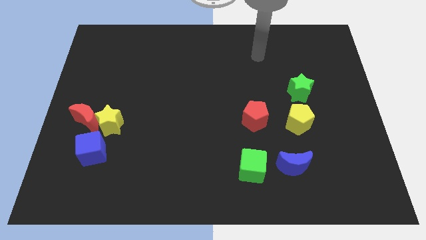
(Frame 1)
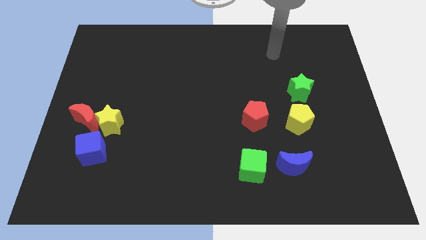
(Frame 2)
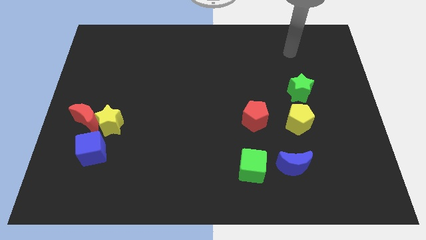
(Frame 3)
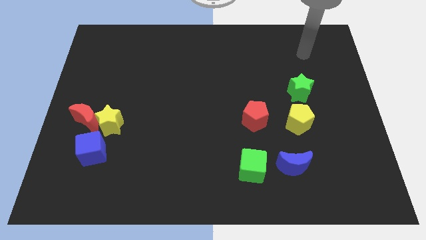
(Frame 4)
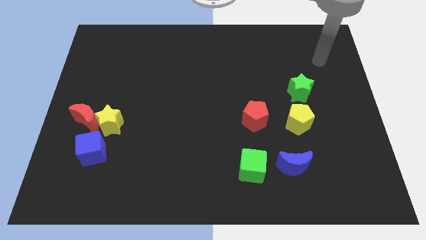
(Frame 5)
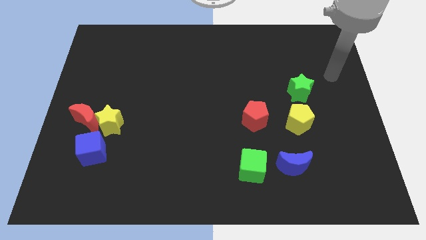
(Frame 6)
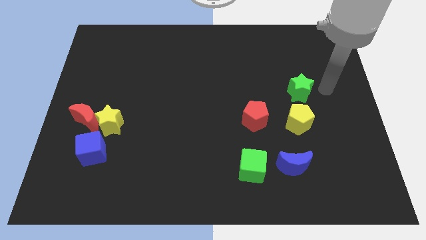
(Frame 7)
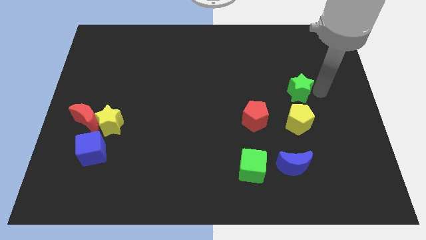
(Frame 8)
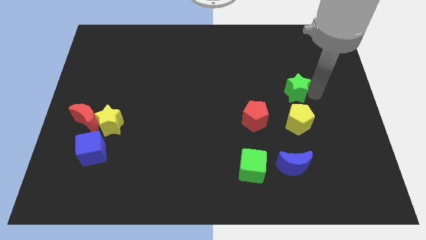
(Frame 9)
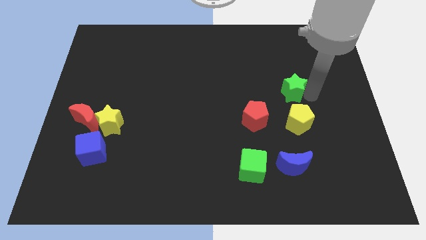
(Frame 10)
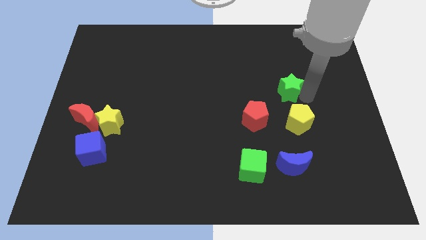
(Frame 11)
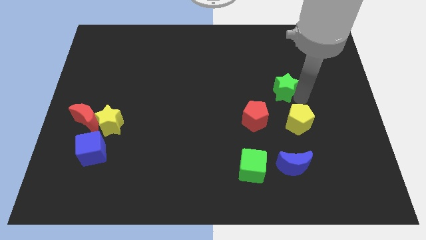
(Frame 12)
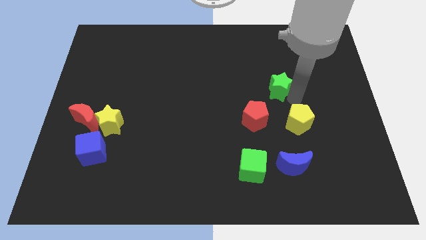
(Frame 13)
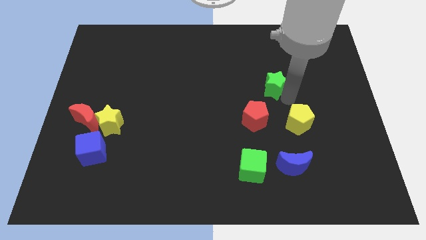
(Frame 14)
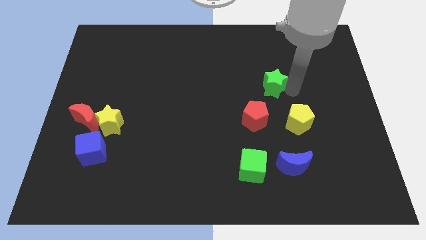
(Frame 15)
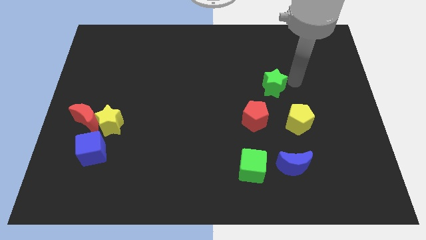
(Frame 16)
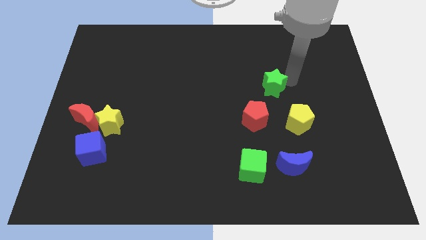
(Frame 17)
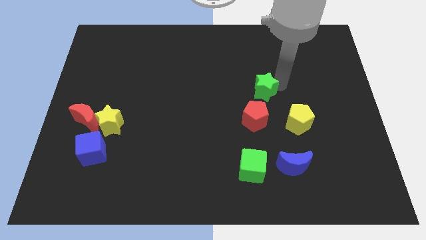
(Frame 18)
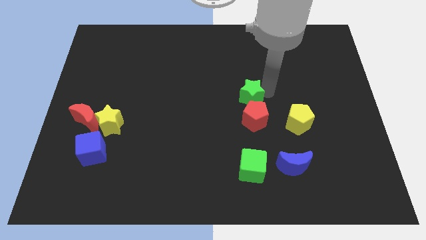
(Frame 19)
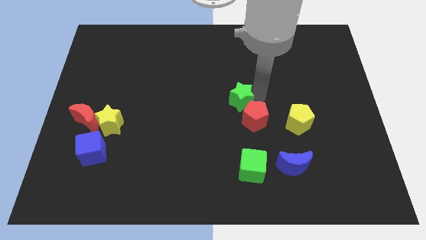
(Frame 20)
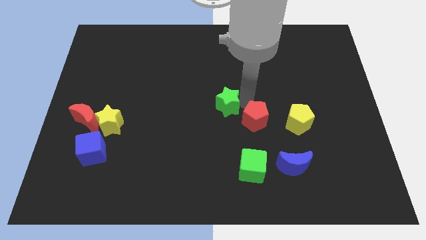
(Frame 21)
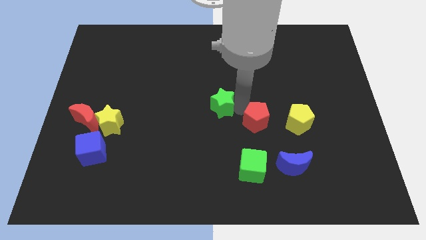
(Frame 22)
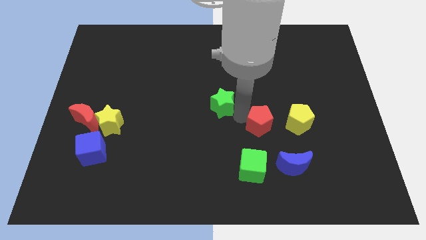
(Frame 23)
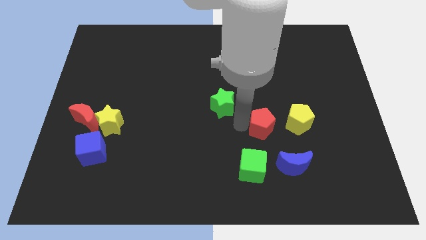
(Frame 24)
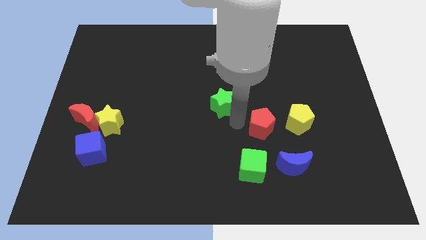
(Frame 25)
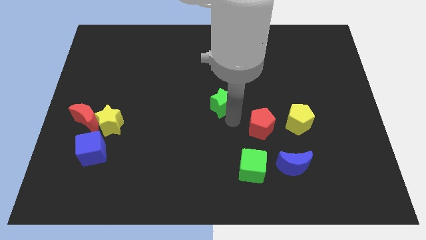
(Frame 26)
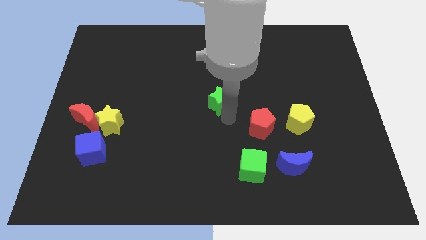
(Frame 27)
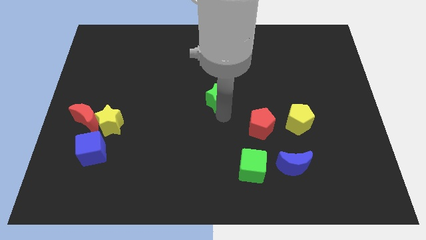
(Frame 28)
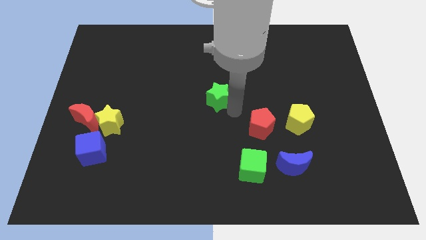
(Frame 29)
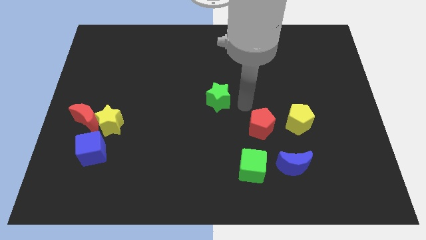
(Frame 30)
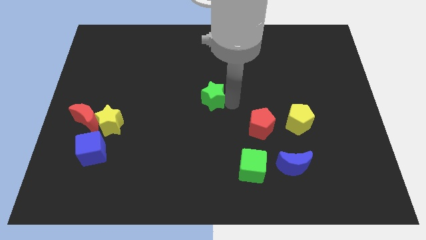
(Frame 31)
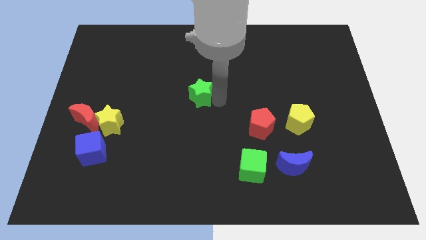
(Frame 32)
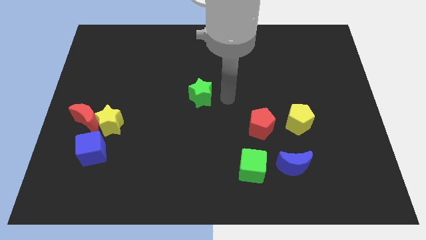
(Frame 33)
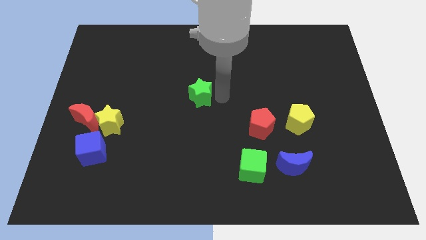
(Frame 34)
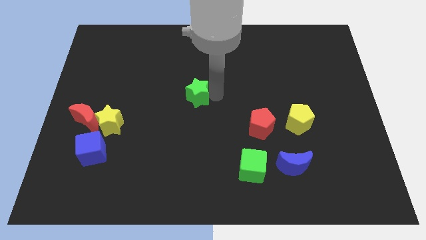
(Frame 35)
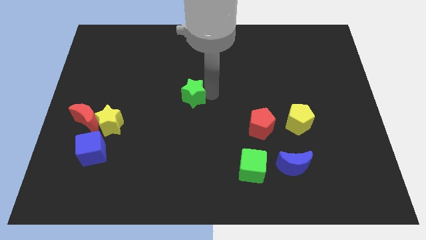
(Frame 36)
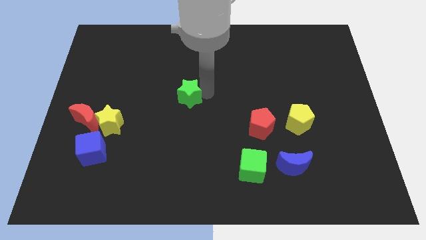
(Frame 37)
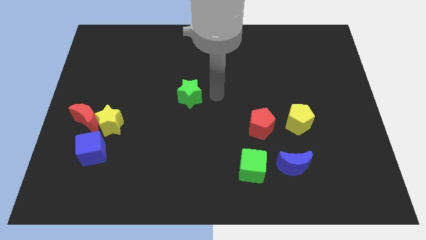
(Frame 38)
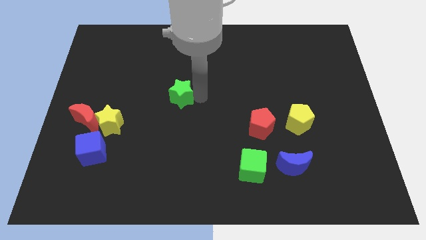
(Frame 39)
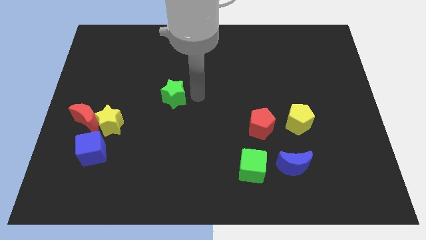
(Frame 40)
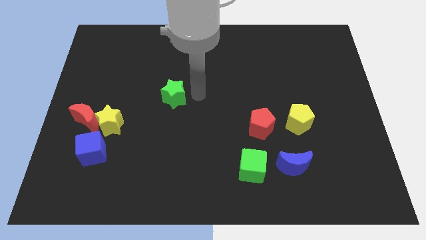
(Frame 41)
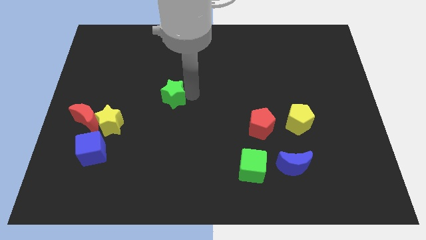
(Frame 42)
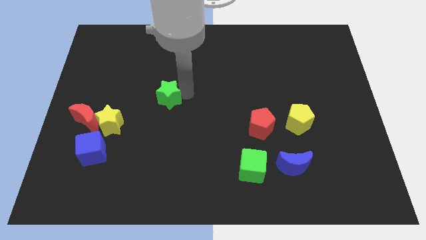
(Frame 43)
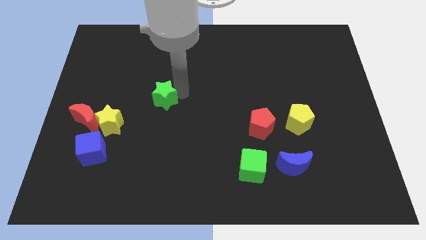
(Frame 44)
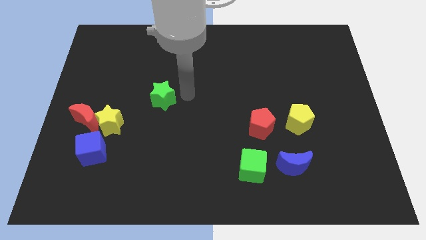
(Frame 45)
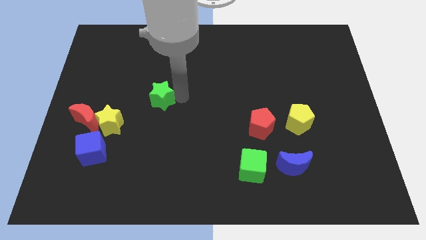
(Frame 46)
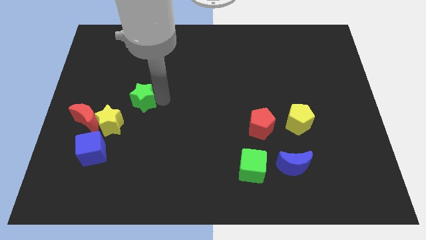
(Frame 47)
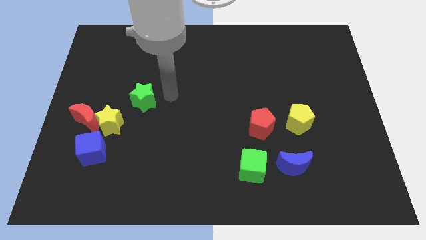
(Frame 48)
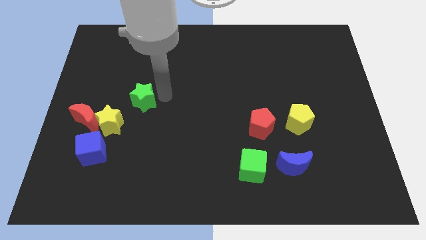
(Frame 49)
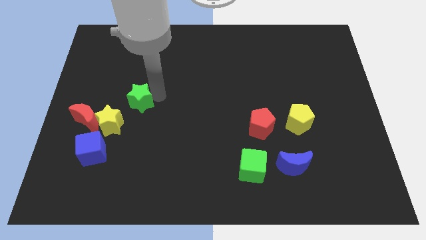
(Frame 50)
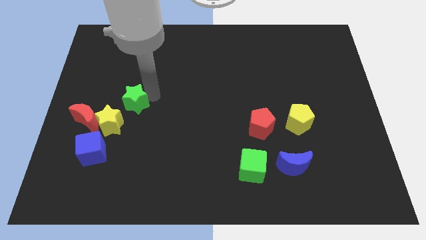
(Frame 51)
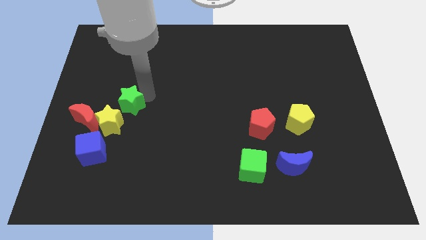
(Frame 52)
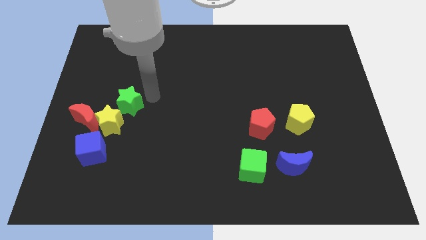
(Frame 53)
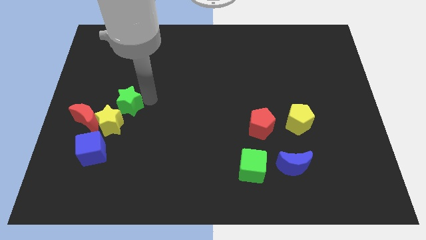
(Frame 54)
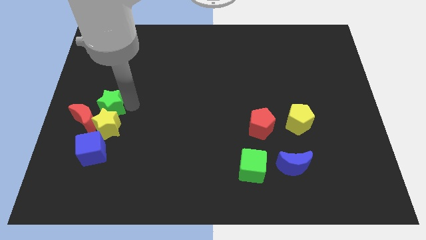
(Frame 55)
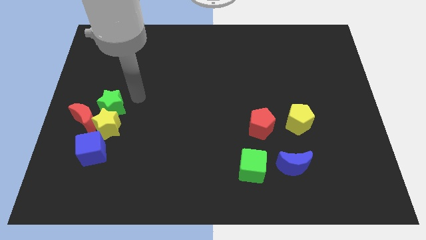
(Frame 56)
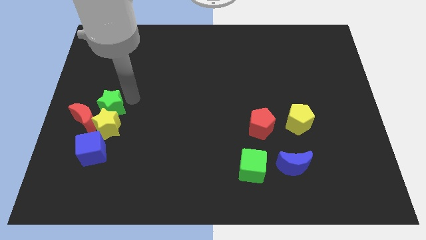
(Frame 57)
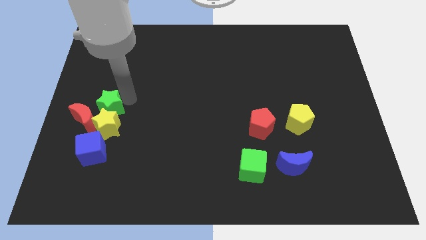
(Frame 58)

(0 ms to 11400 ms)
push the green star to the red moon

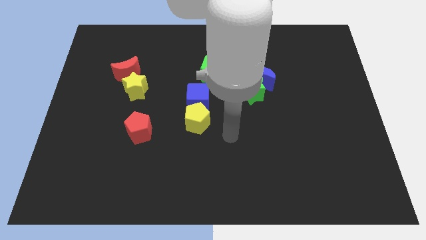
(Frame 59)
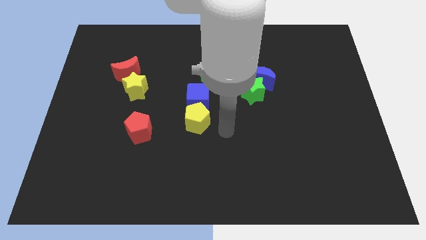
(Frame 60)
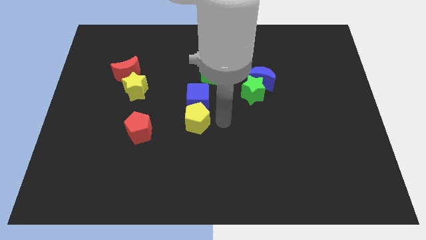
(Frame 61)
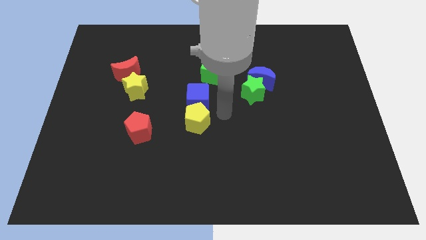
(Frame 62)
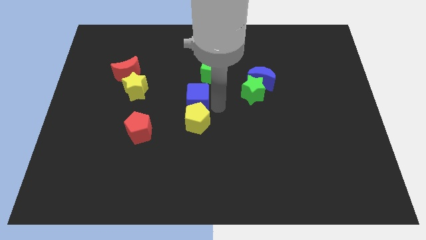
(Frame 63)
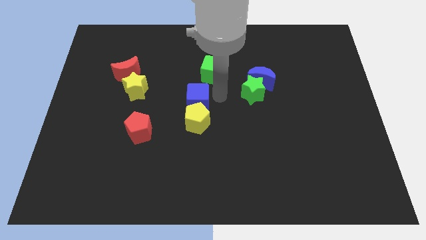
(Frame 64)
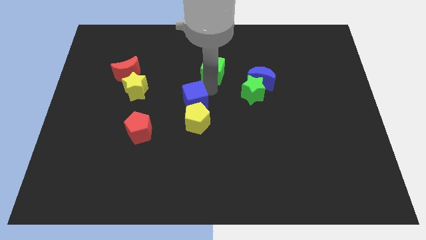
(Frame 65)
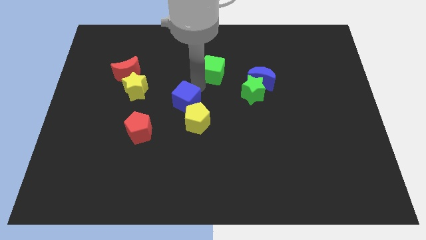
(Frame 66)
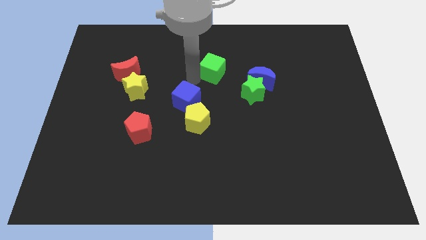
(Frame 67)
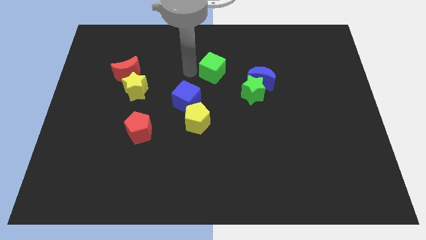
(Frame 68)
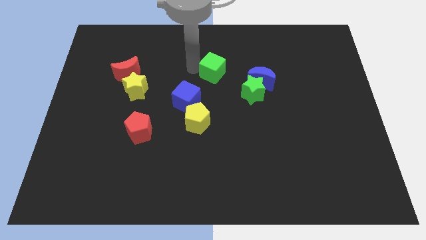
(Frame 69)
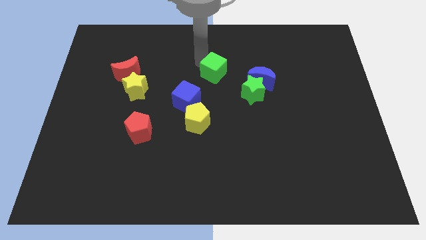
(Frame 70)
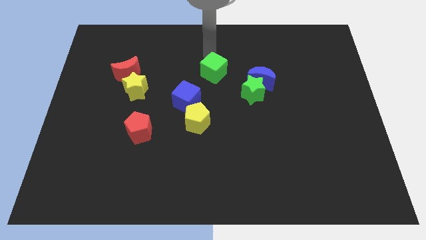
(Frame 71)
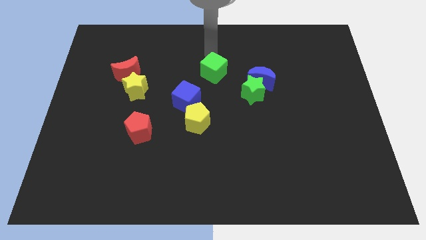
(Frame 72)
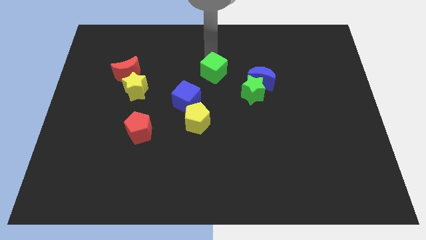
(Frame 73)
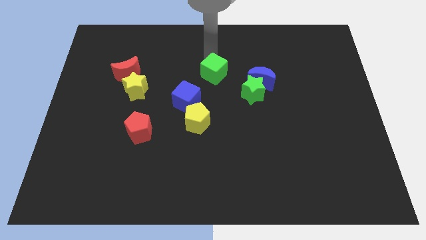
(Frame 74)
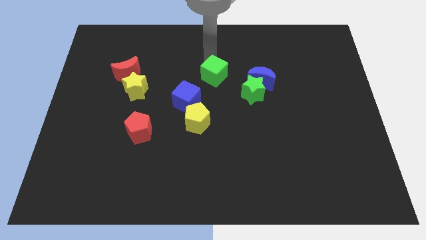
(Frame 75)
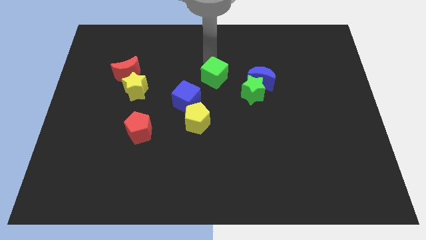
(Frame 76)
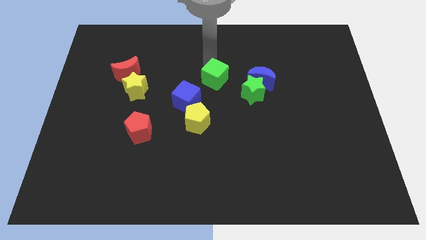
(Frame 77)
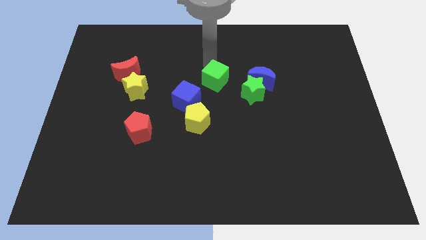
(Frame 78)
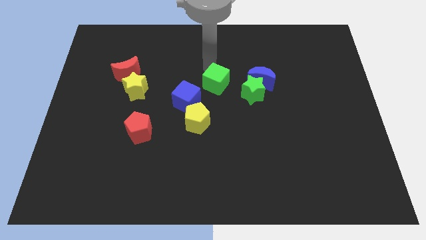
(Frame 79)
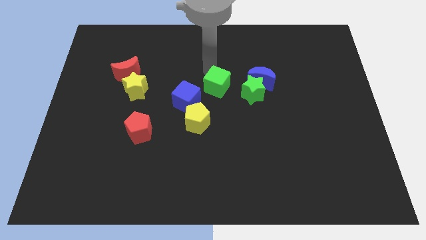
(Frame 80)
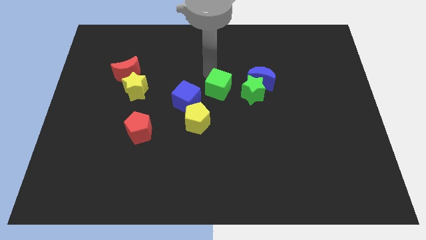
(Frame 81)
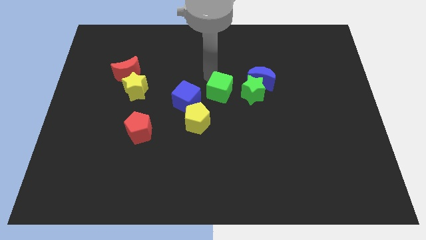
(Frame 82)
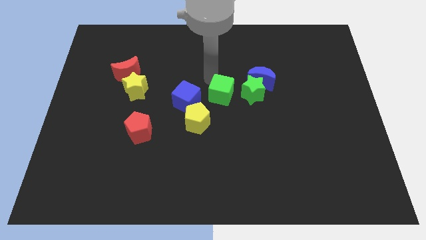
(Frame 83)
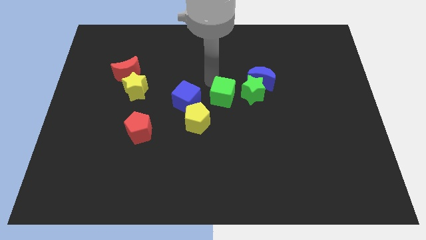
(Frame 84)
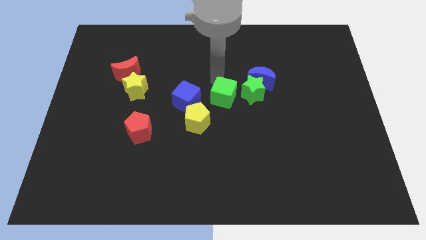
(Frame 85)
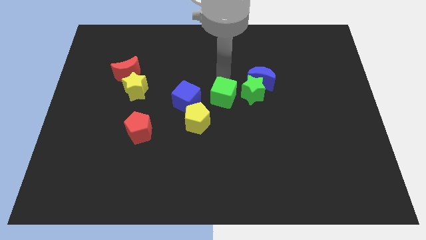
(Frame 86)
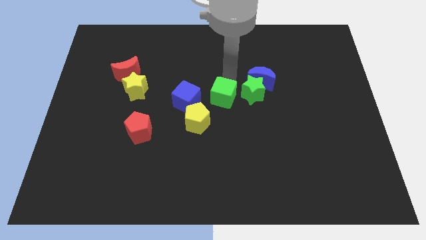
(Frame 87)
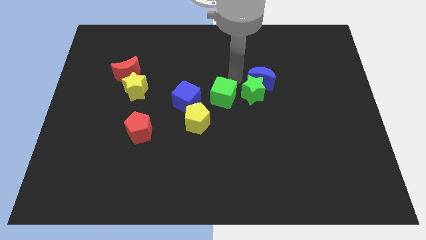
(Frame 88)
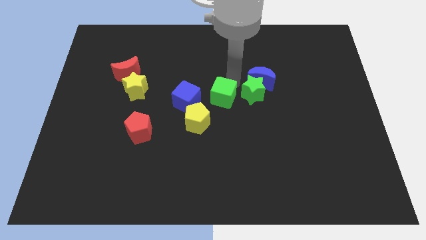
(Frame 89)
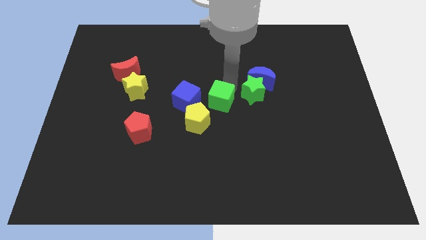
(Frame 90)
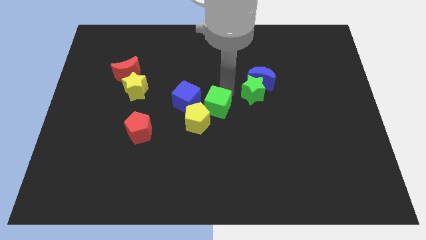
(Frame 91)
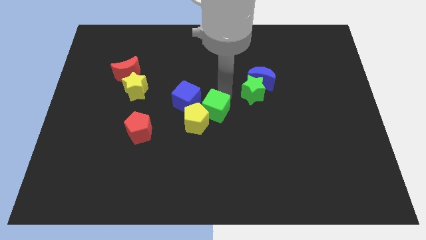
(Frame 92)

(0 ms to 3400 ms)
move the green cube close to the yellow pentagon
